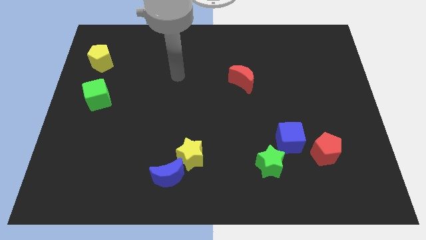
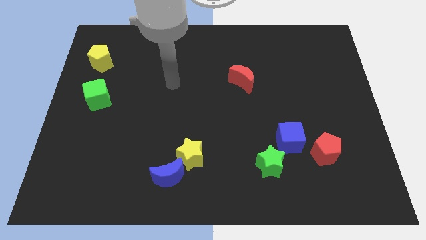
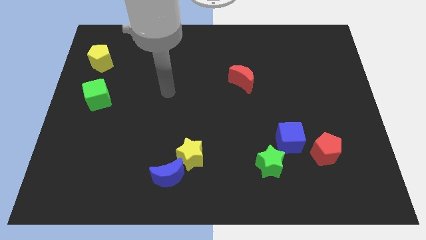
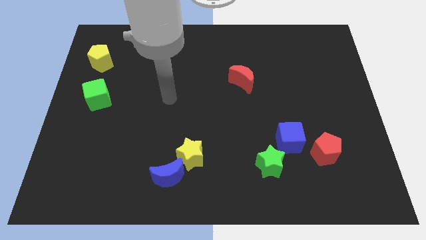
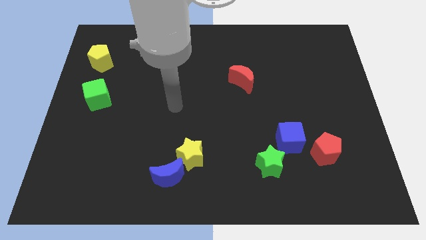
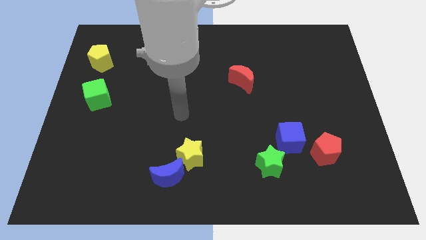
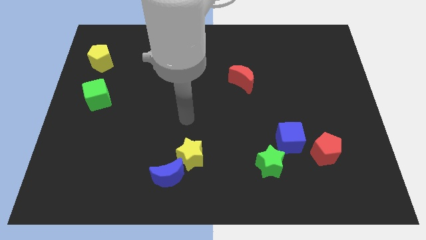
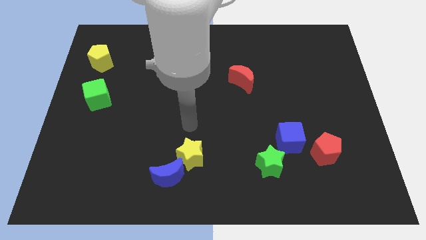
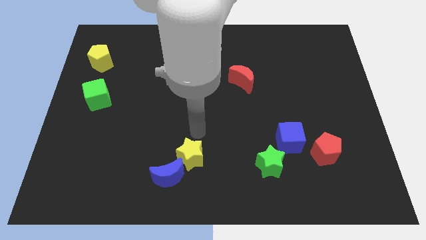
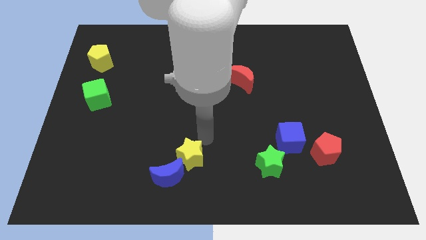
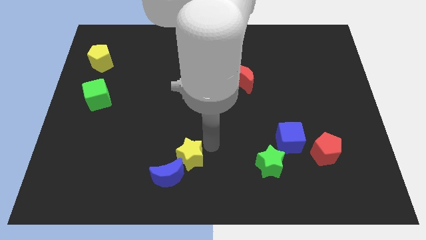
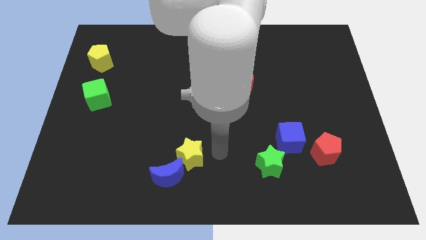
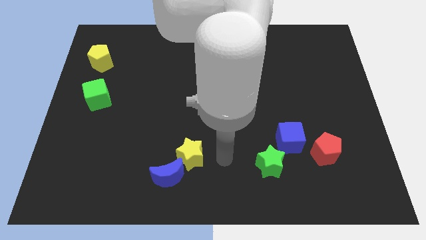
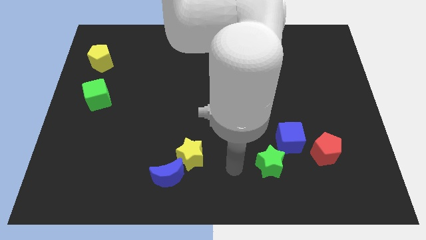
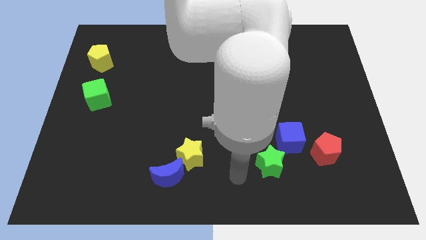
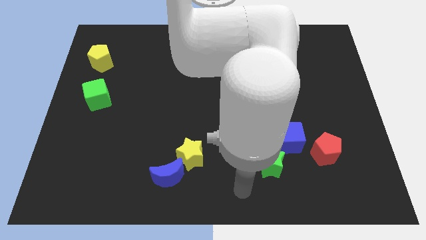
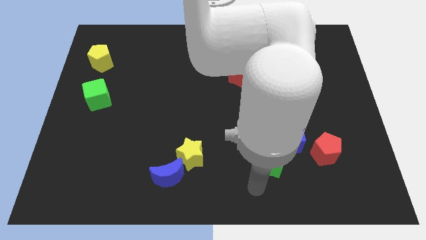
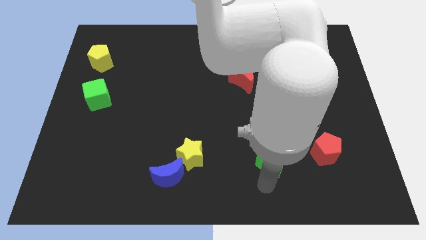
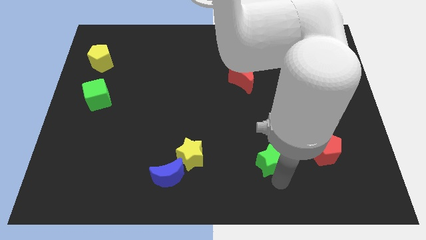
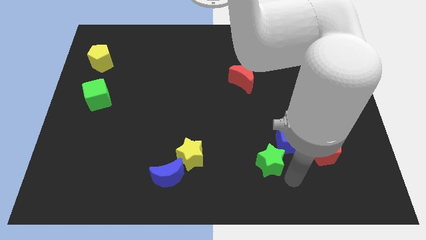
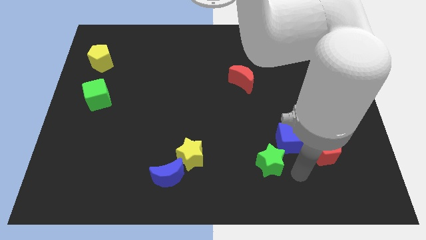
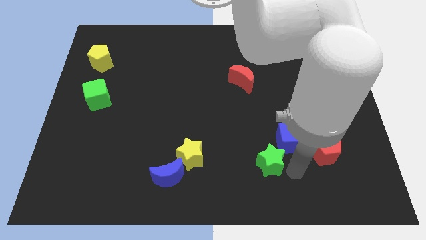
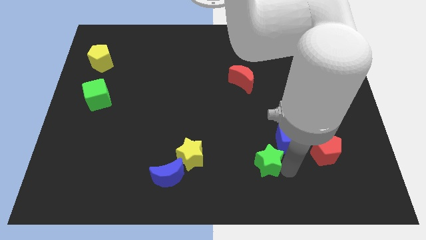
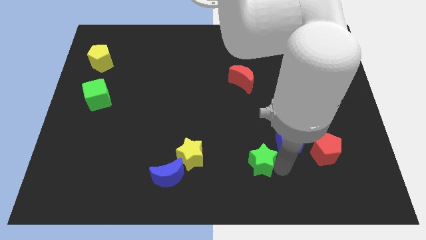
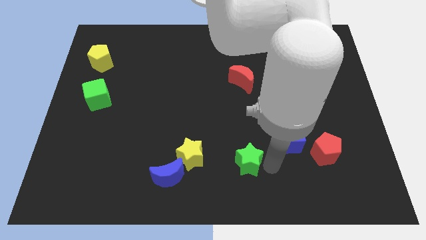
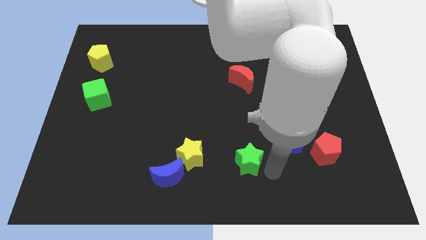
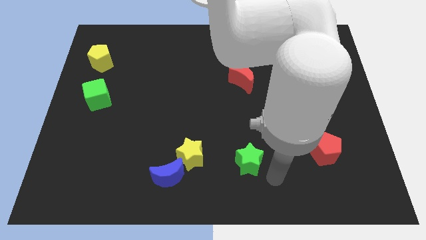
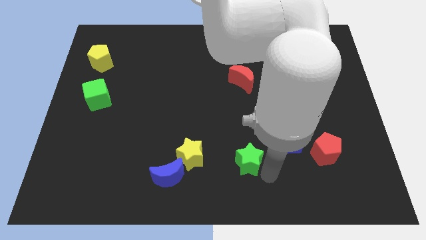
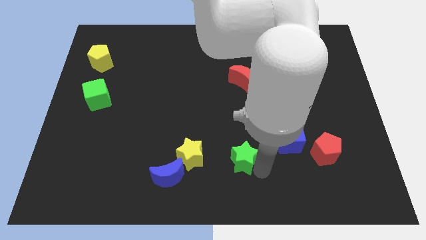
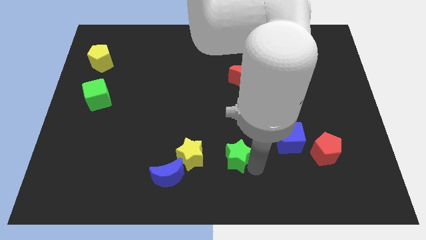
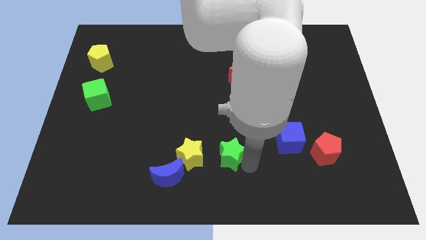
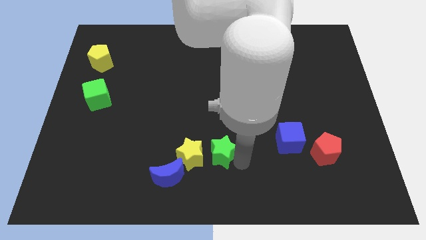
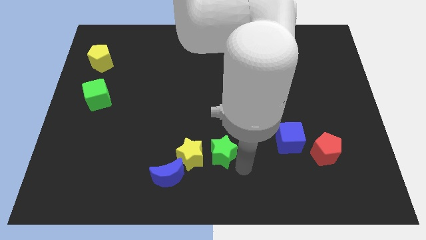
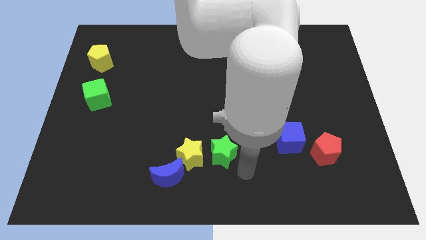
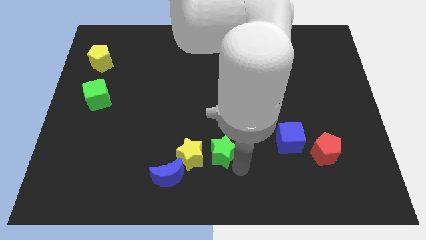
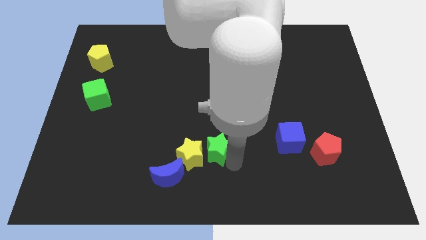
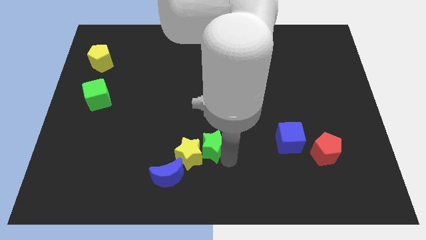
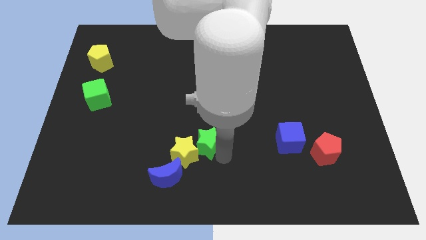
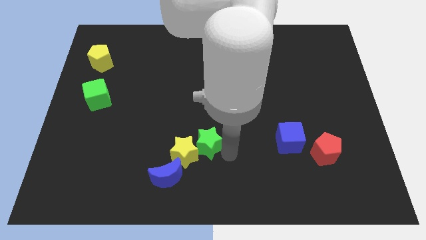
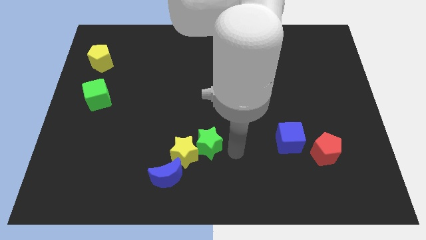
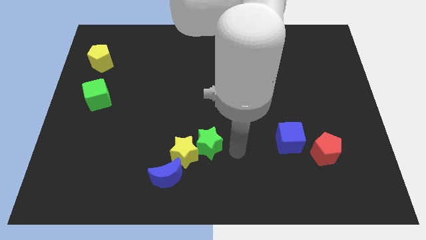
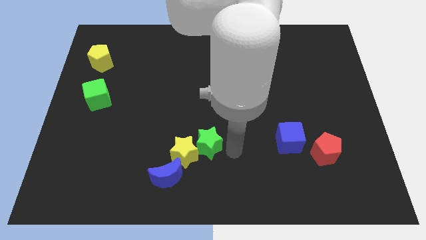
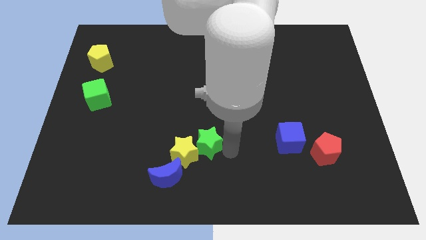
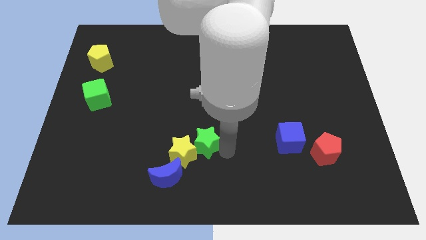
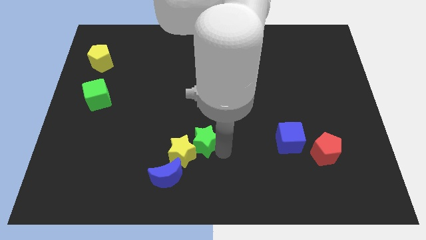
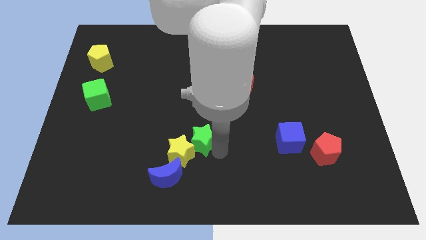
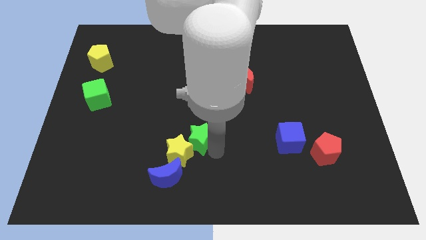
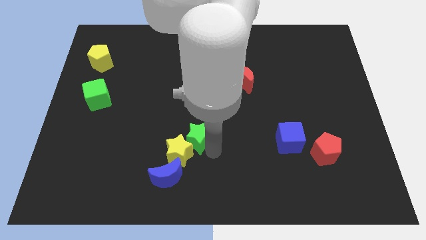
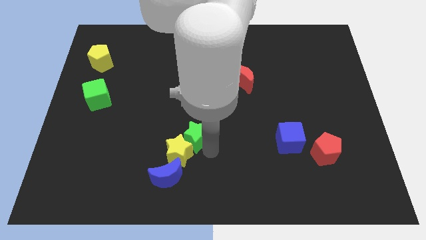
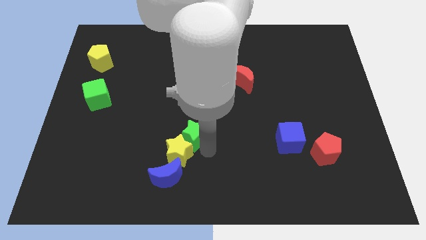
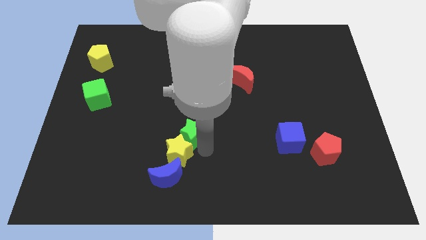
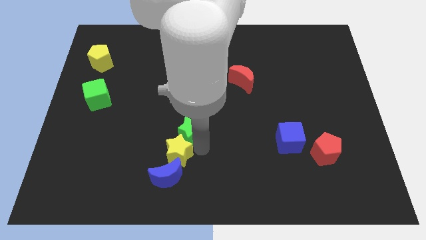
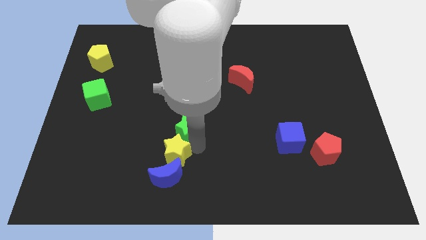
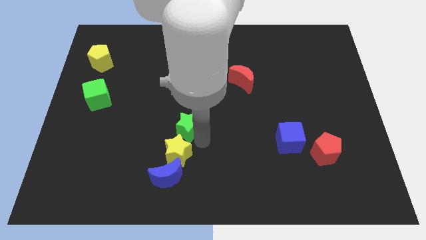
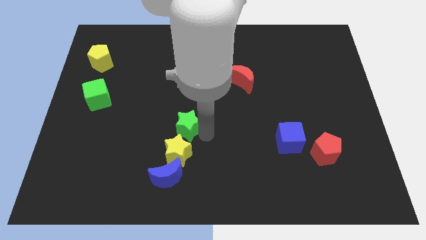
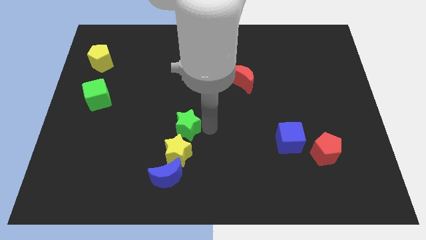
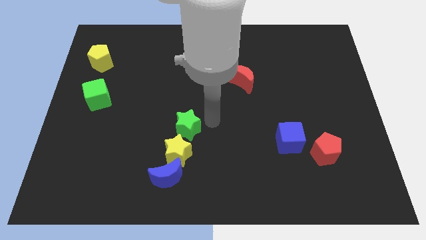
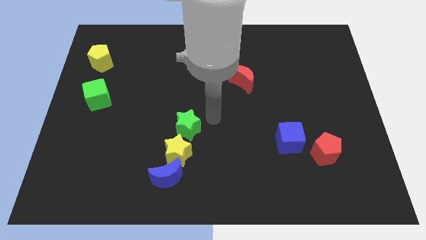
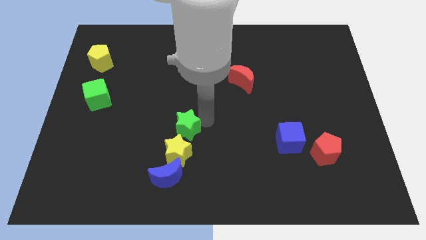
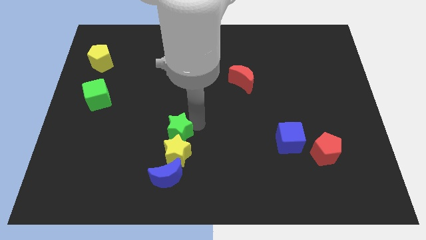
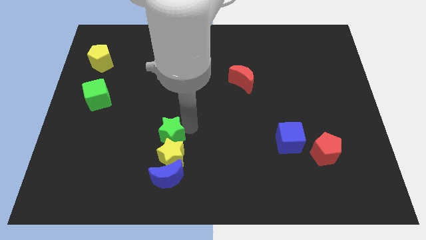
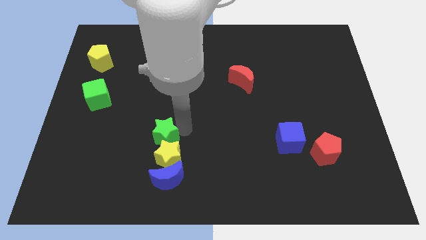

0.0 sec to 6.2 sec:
move the green star left

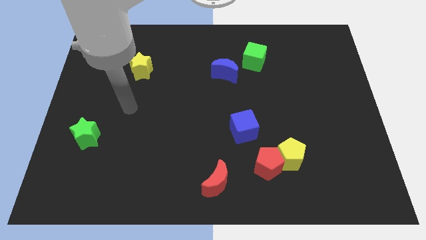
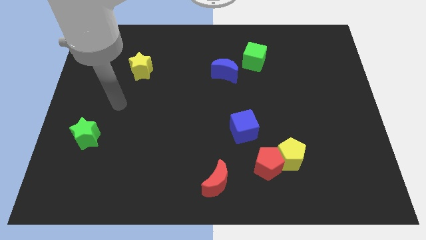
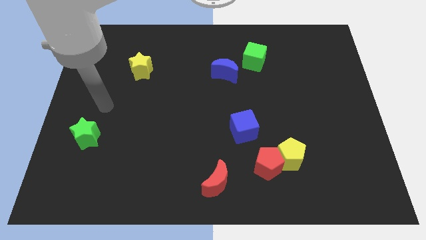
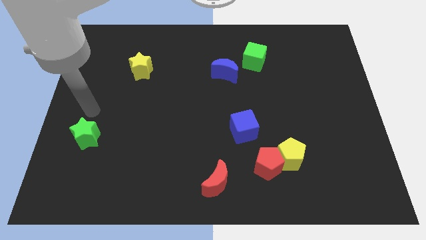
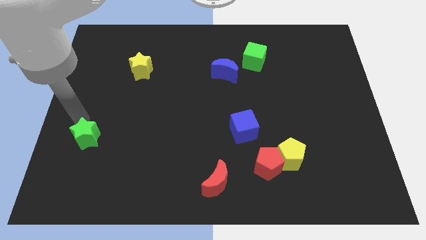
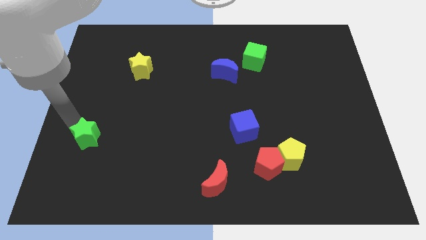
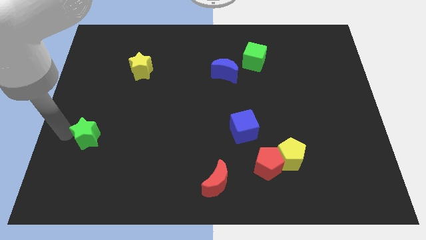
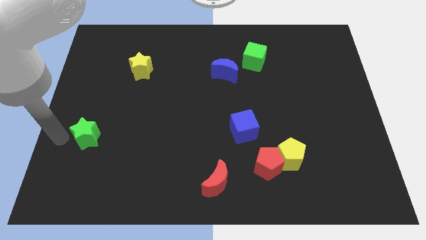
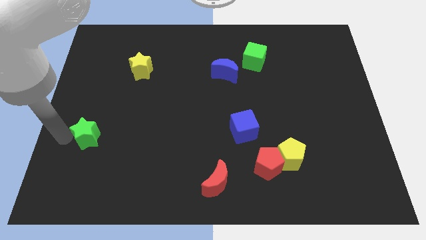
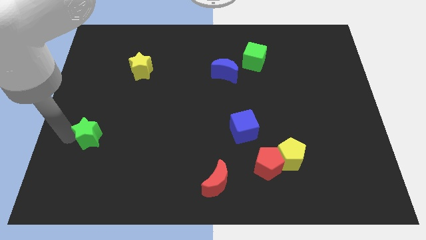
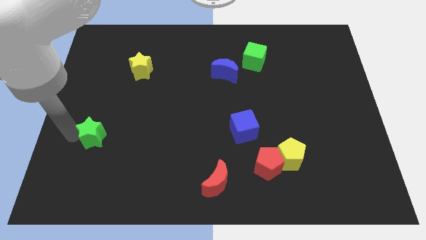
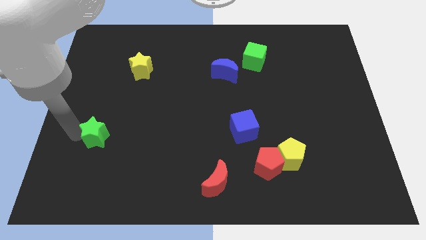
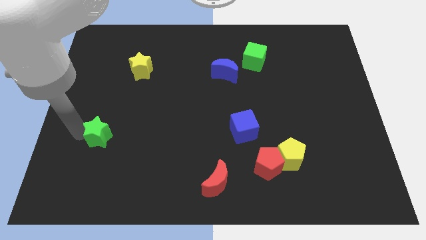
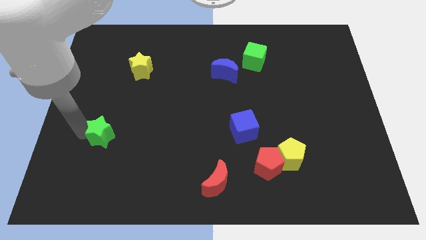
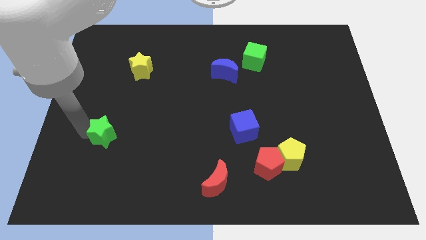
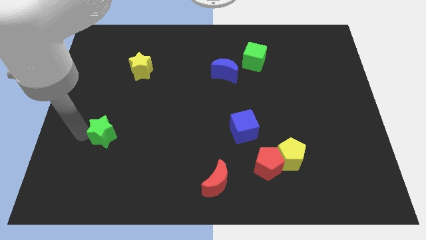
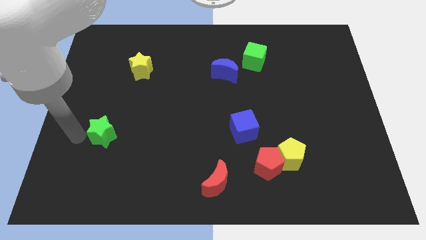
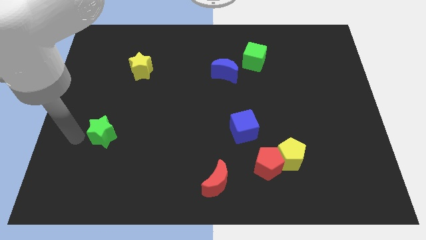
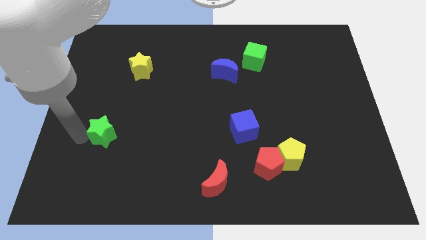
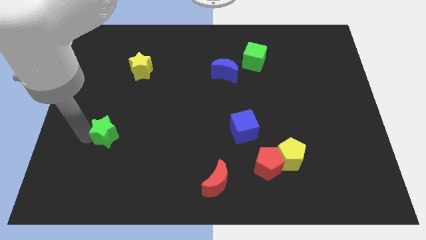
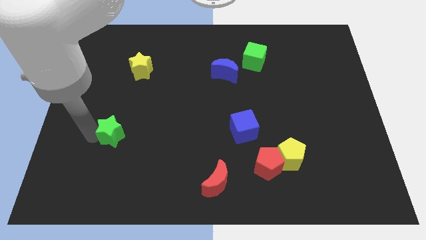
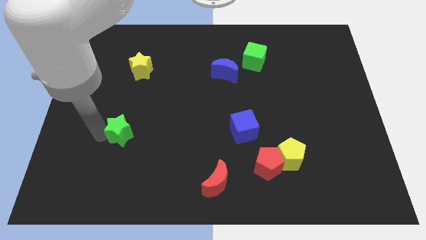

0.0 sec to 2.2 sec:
slightly push the green star to the right
